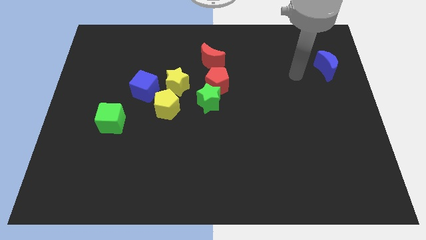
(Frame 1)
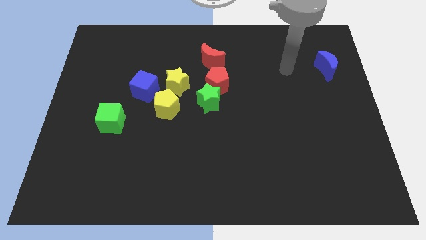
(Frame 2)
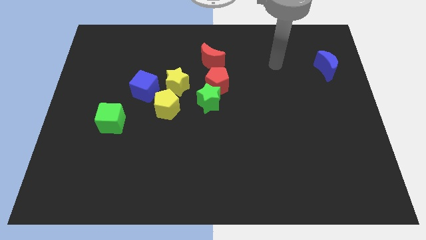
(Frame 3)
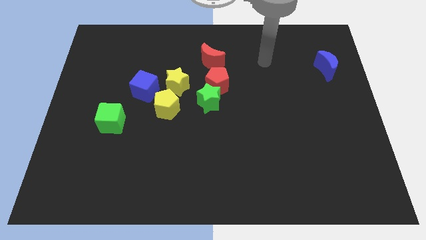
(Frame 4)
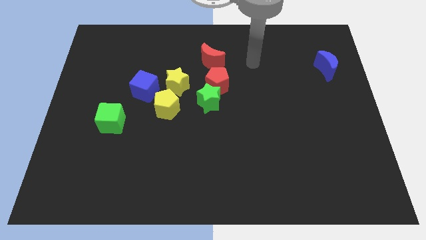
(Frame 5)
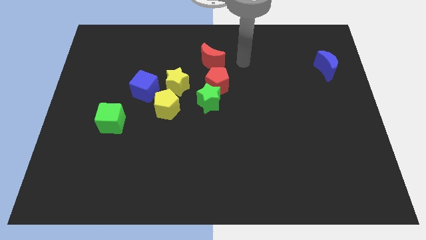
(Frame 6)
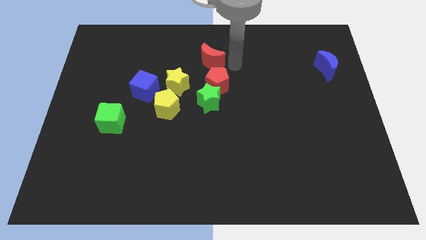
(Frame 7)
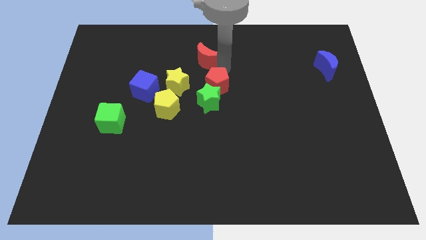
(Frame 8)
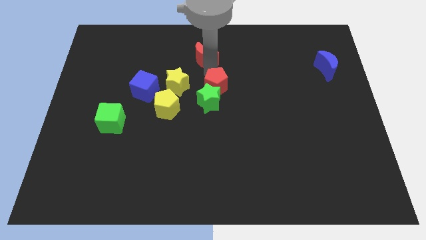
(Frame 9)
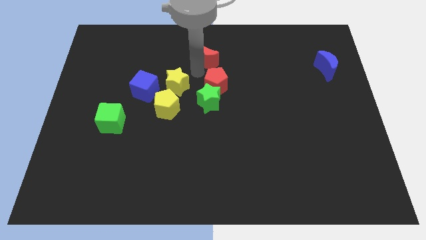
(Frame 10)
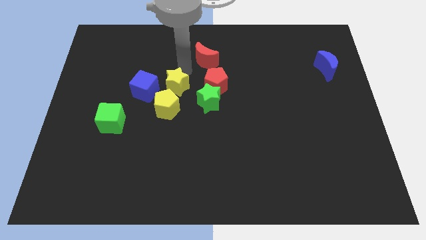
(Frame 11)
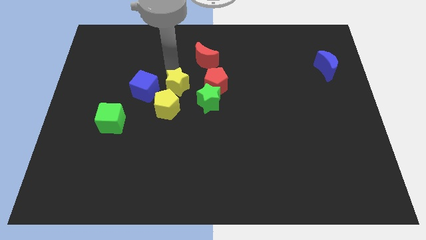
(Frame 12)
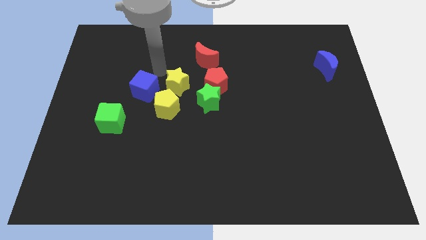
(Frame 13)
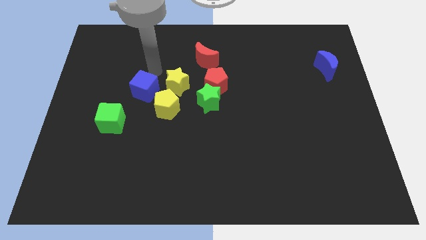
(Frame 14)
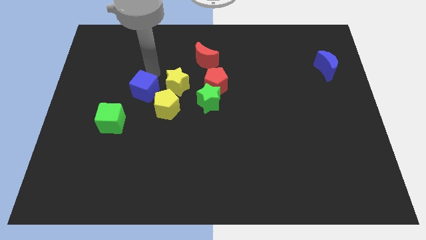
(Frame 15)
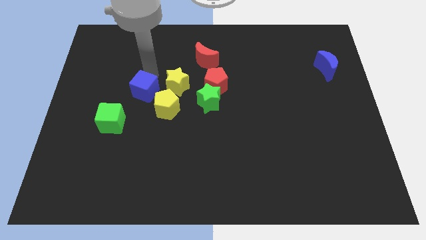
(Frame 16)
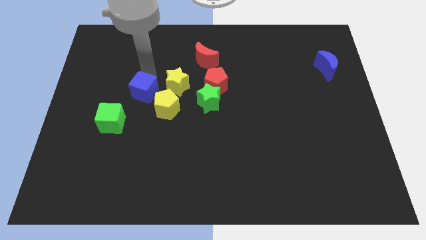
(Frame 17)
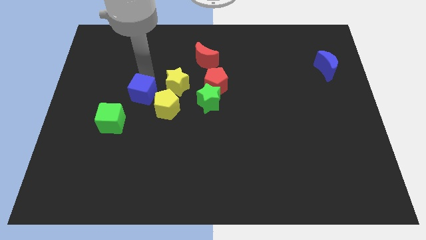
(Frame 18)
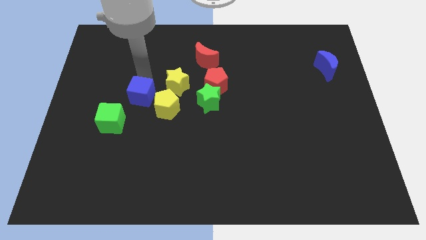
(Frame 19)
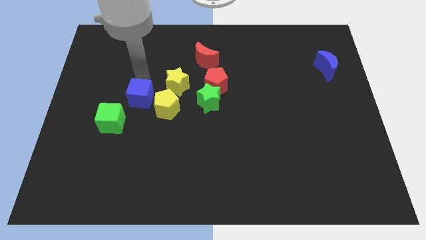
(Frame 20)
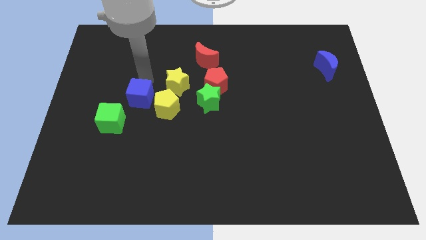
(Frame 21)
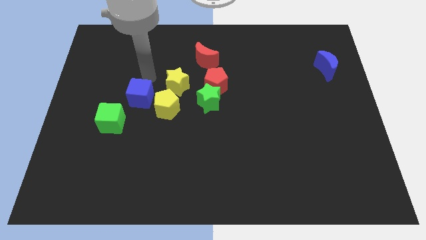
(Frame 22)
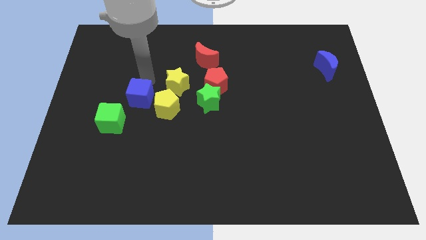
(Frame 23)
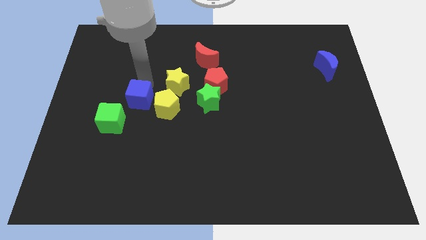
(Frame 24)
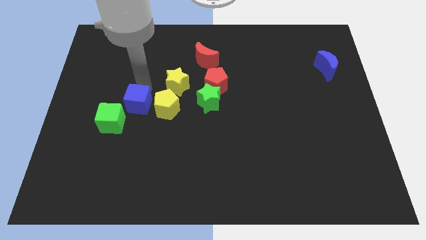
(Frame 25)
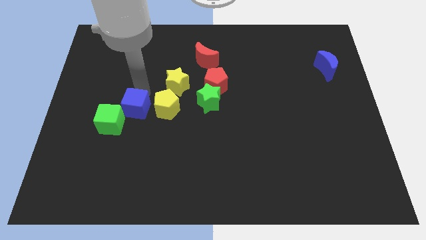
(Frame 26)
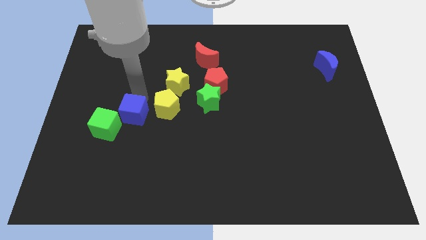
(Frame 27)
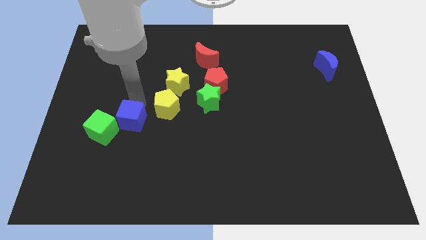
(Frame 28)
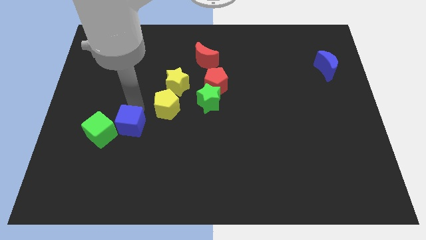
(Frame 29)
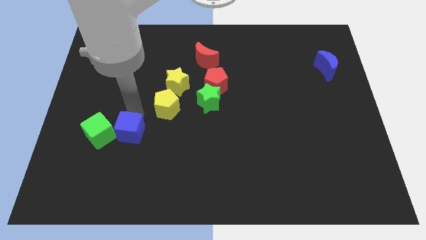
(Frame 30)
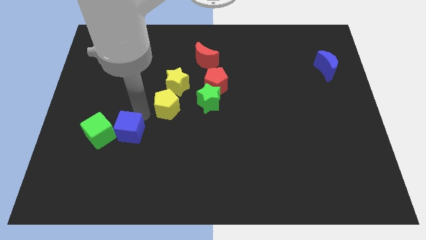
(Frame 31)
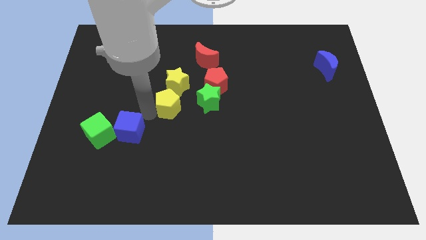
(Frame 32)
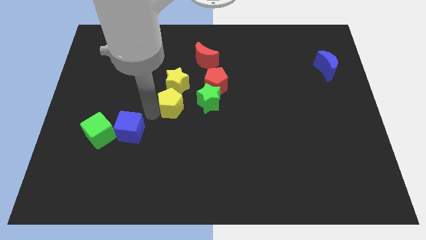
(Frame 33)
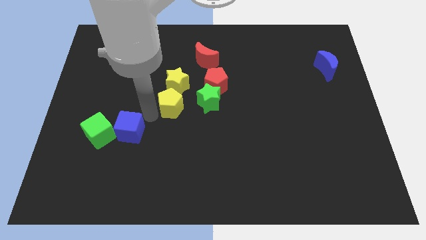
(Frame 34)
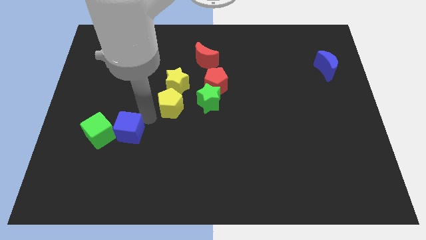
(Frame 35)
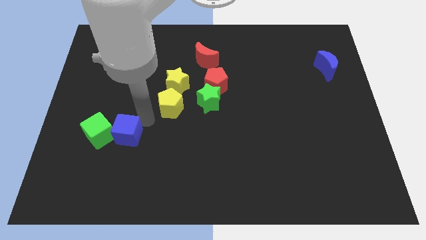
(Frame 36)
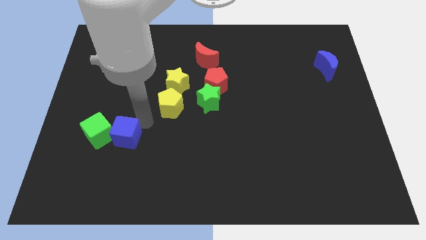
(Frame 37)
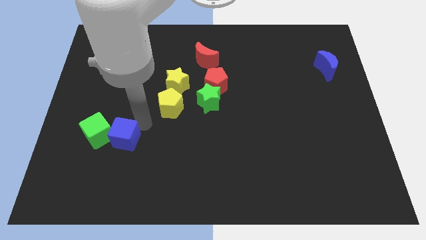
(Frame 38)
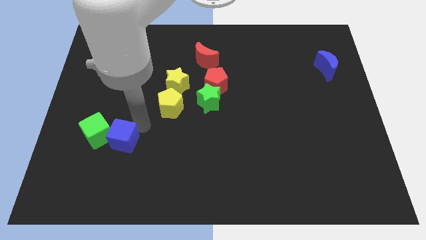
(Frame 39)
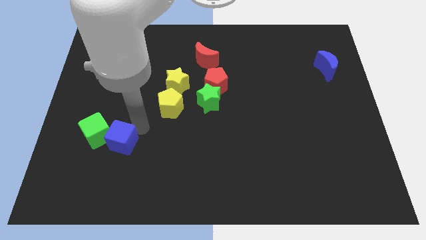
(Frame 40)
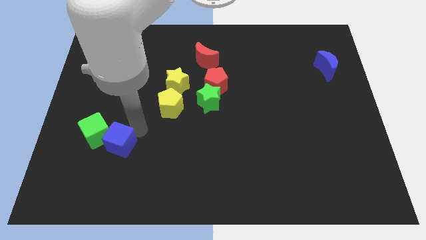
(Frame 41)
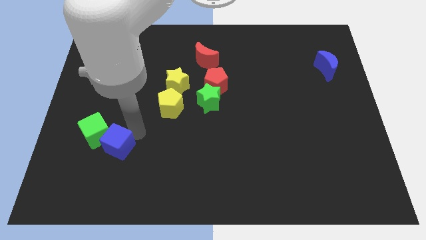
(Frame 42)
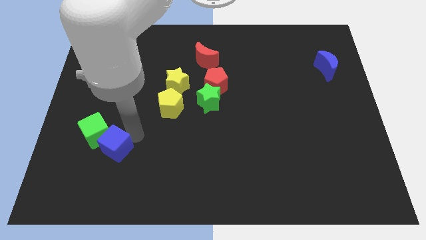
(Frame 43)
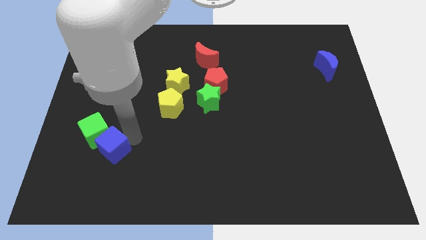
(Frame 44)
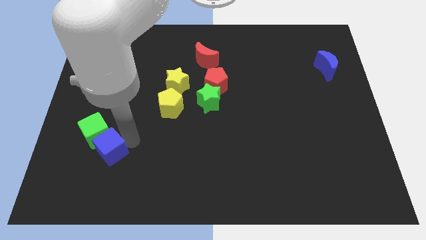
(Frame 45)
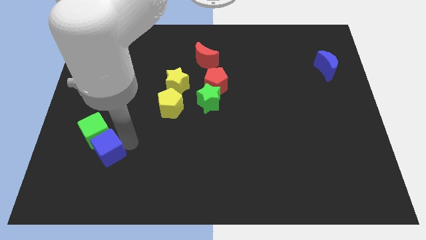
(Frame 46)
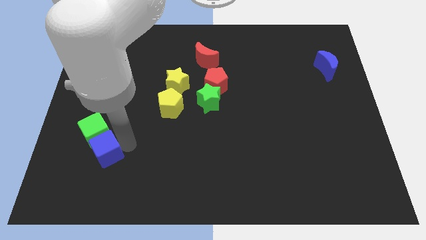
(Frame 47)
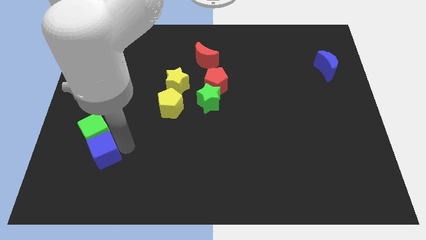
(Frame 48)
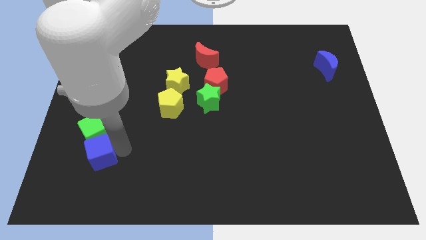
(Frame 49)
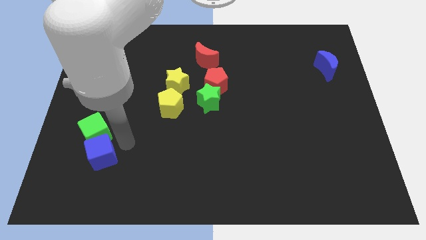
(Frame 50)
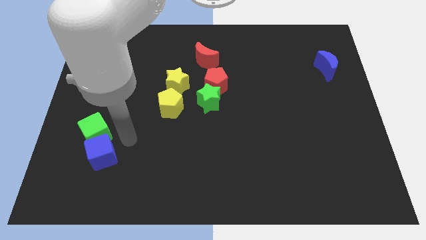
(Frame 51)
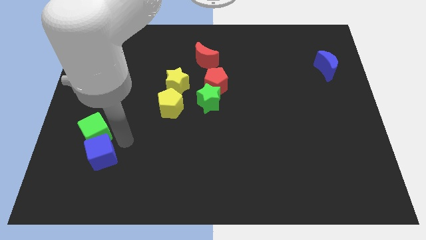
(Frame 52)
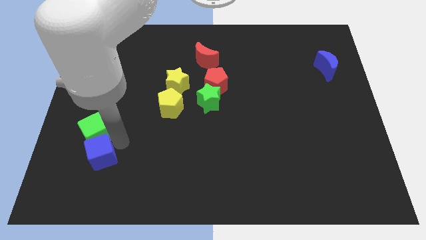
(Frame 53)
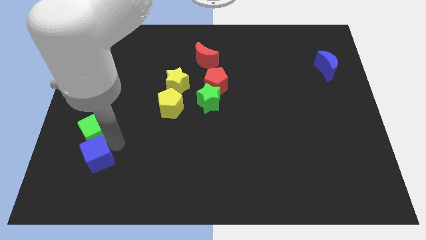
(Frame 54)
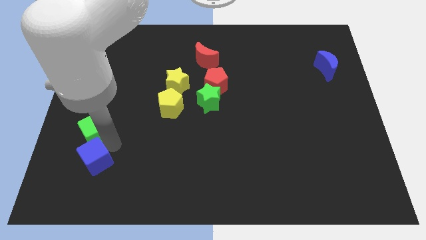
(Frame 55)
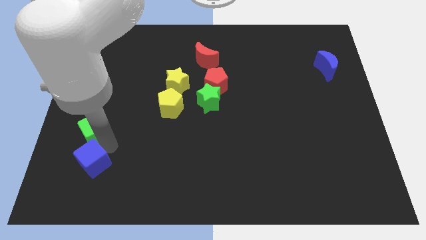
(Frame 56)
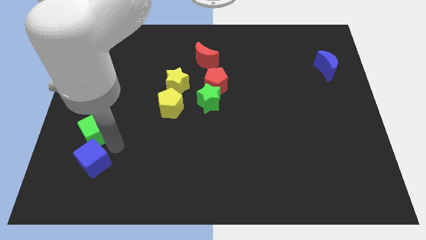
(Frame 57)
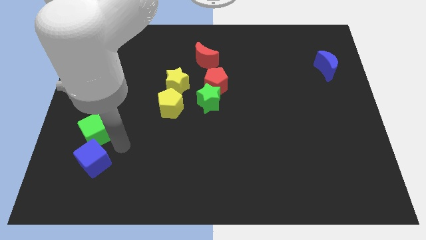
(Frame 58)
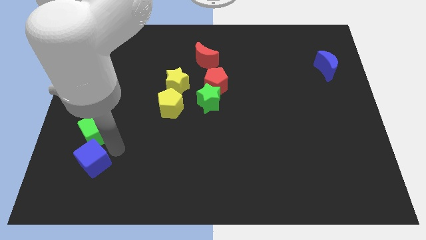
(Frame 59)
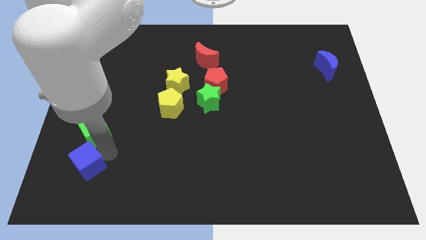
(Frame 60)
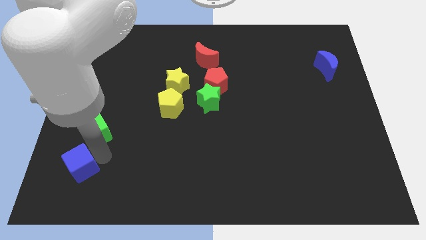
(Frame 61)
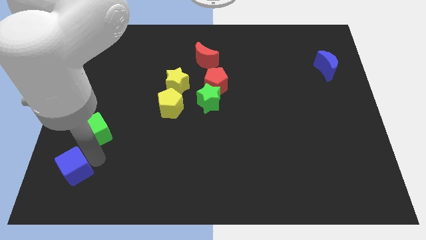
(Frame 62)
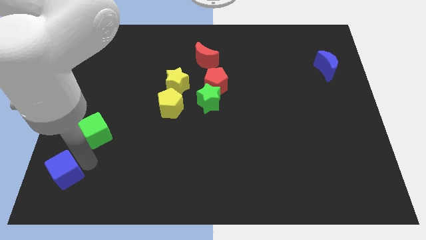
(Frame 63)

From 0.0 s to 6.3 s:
push the blue cube to the bottom left of the board
